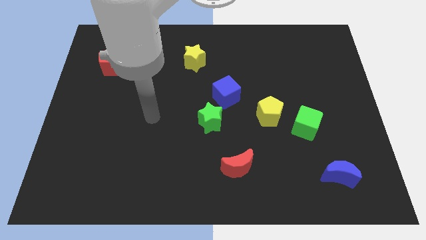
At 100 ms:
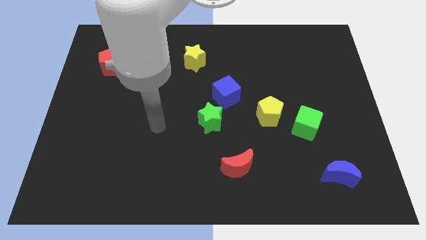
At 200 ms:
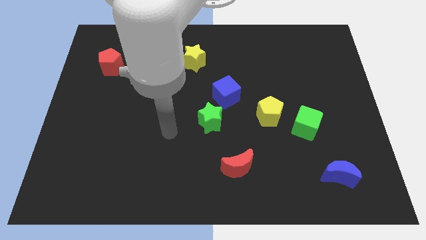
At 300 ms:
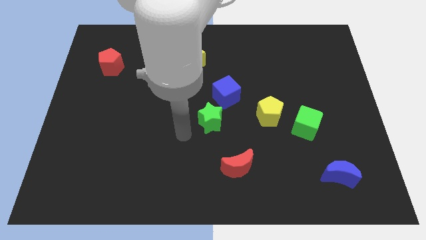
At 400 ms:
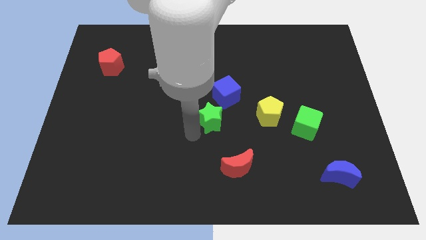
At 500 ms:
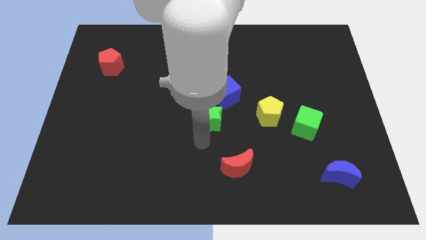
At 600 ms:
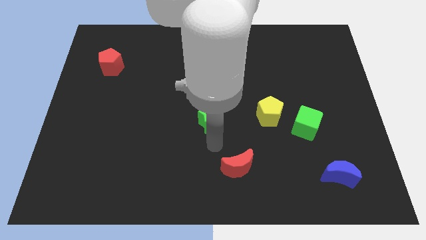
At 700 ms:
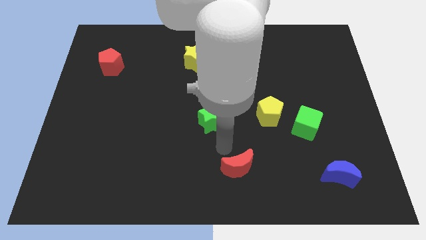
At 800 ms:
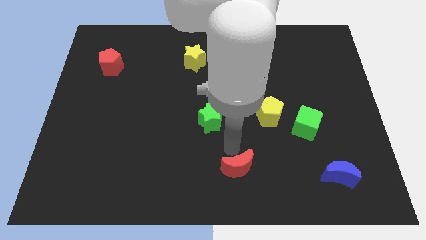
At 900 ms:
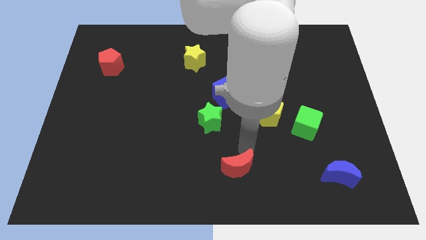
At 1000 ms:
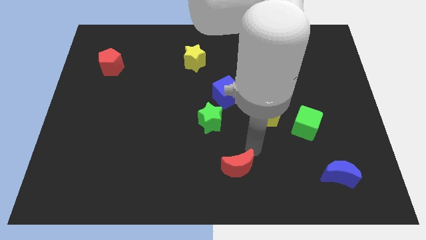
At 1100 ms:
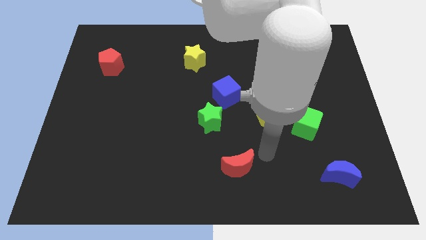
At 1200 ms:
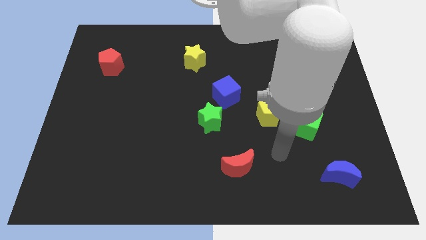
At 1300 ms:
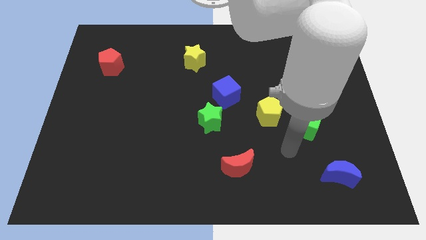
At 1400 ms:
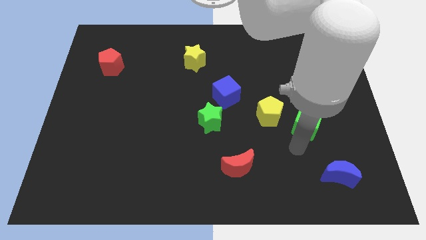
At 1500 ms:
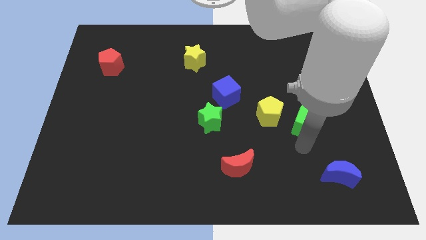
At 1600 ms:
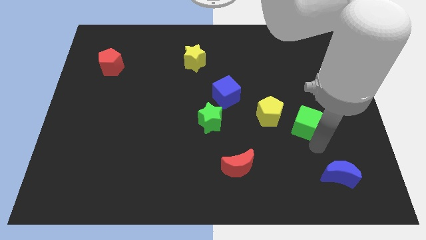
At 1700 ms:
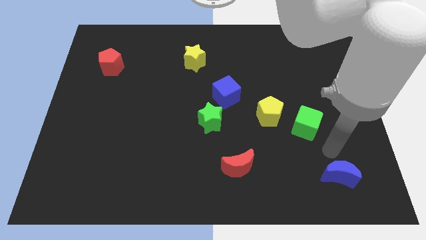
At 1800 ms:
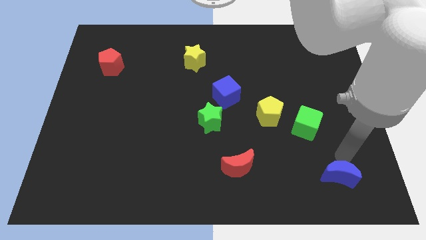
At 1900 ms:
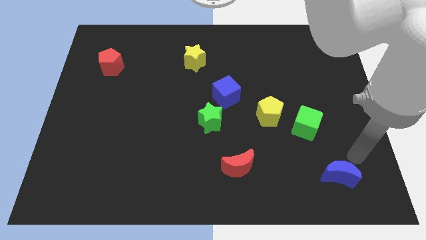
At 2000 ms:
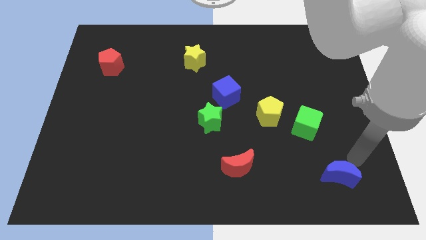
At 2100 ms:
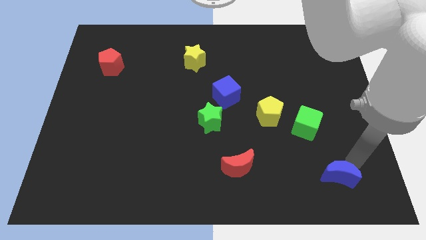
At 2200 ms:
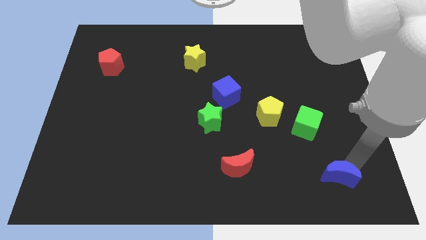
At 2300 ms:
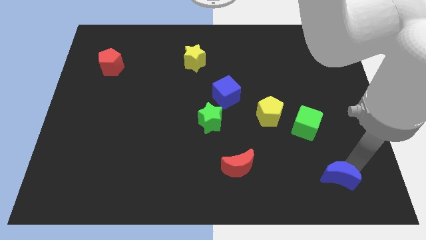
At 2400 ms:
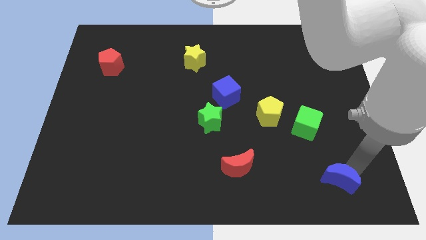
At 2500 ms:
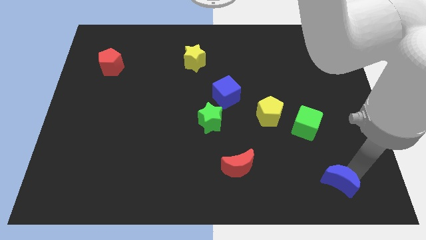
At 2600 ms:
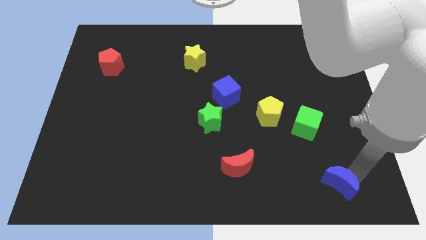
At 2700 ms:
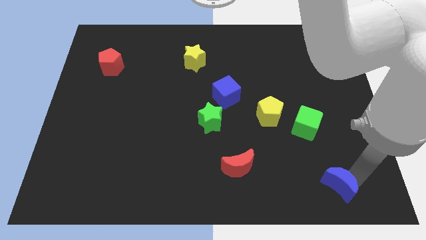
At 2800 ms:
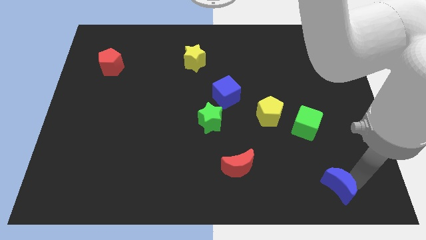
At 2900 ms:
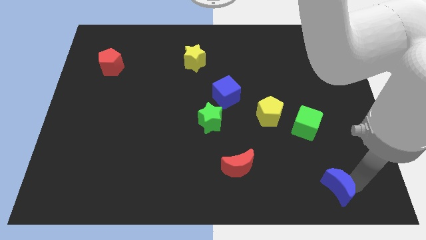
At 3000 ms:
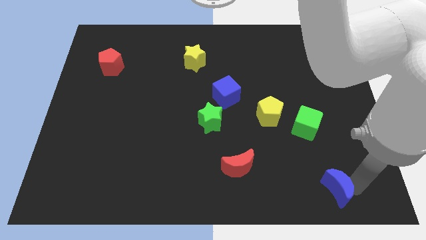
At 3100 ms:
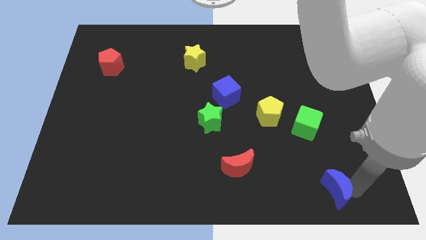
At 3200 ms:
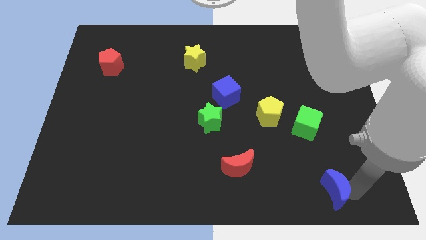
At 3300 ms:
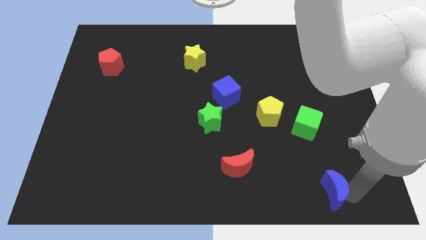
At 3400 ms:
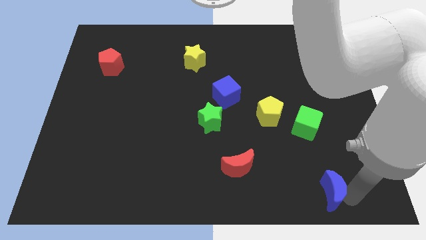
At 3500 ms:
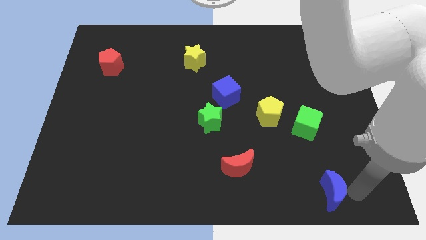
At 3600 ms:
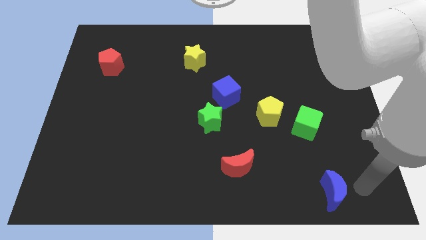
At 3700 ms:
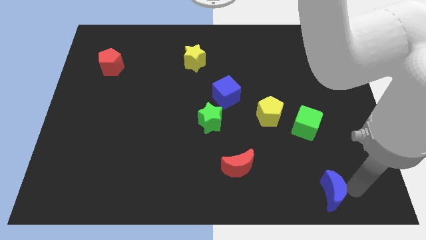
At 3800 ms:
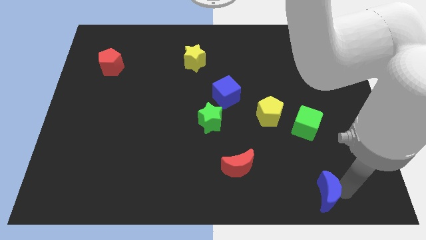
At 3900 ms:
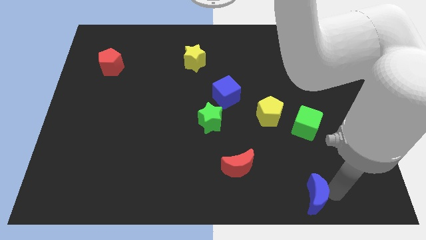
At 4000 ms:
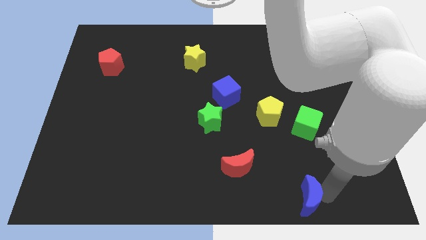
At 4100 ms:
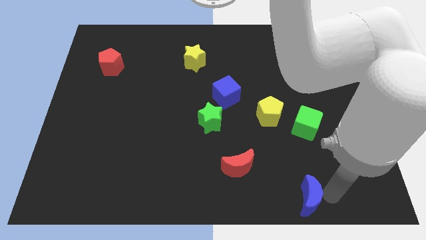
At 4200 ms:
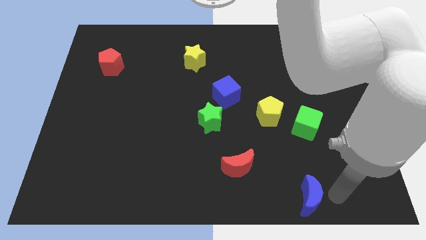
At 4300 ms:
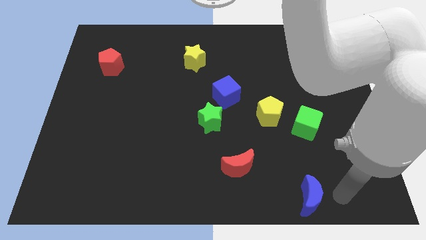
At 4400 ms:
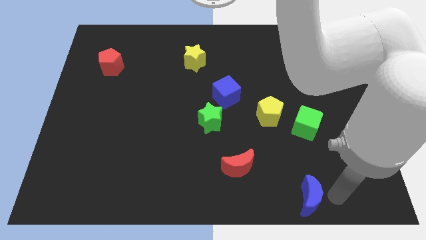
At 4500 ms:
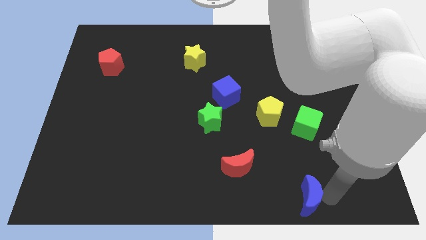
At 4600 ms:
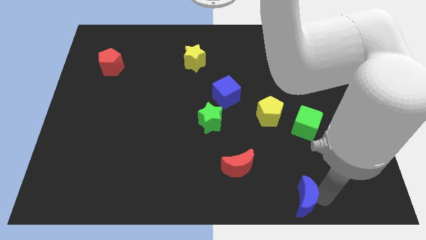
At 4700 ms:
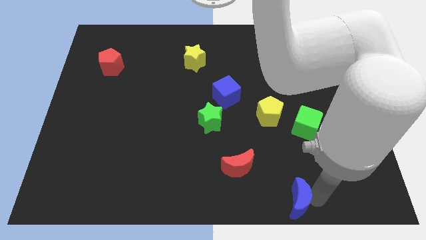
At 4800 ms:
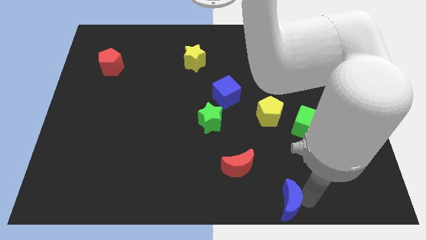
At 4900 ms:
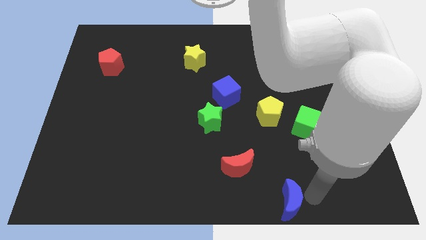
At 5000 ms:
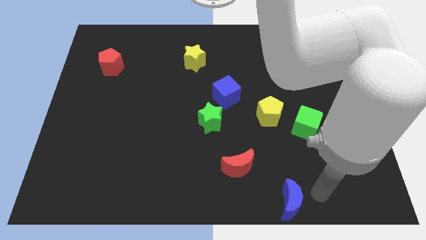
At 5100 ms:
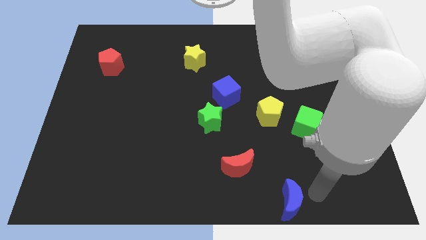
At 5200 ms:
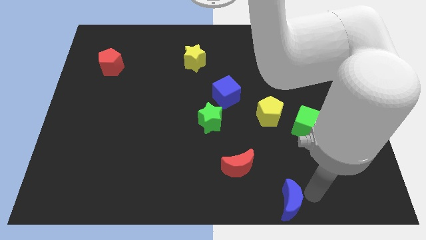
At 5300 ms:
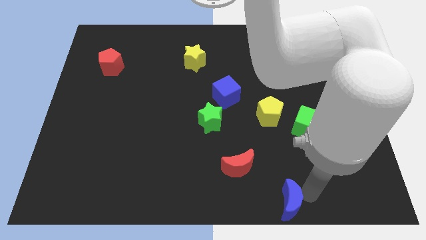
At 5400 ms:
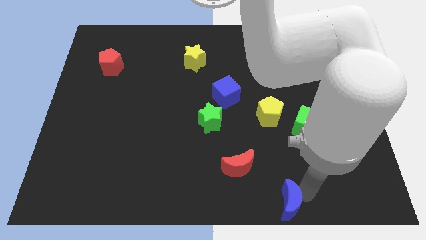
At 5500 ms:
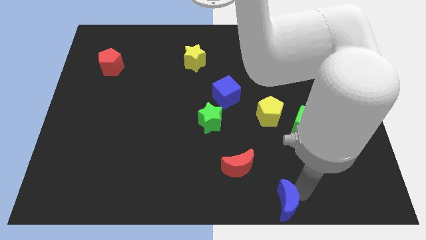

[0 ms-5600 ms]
push the blue moon to the bottom side

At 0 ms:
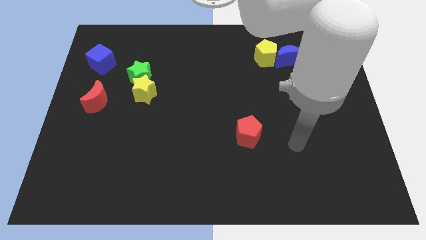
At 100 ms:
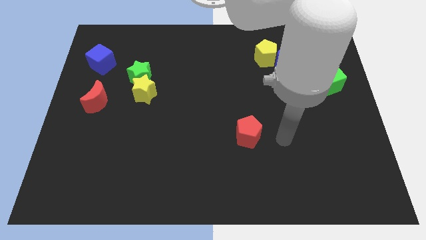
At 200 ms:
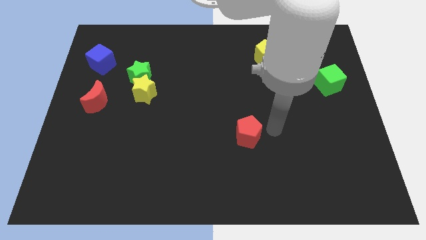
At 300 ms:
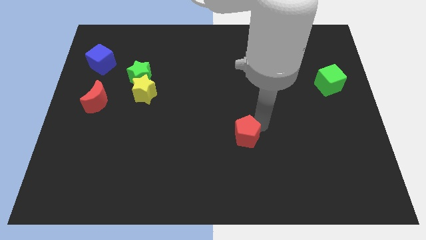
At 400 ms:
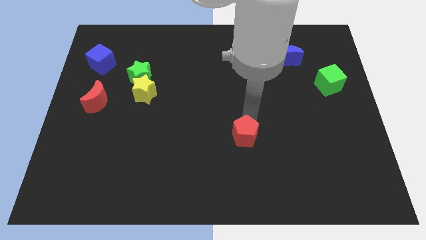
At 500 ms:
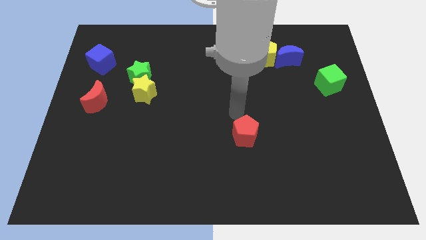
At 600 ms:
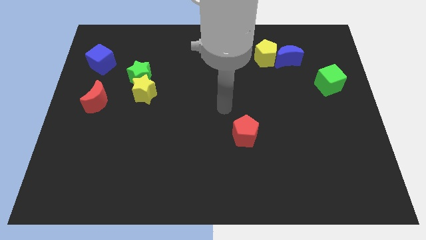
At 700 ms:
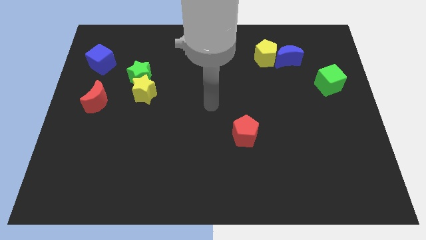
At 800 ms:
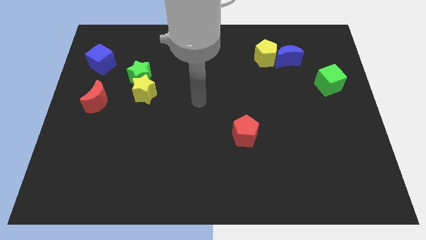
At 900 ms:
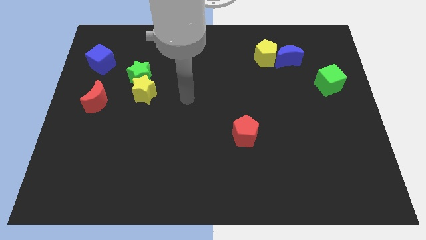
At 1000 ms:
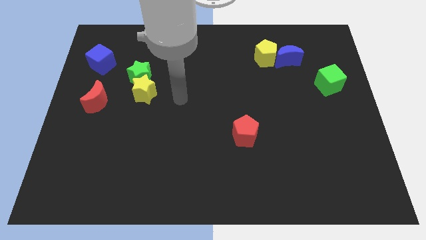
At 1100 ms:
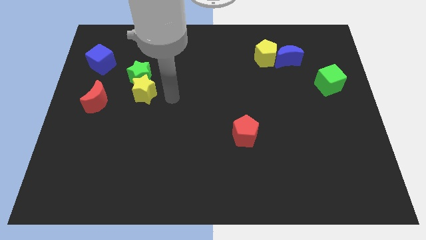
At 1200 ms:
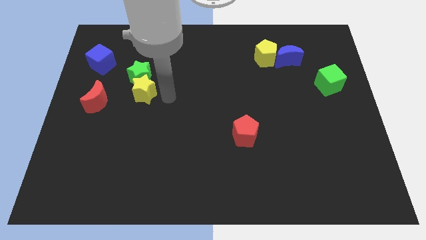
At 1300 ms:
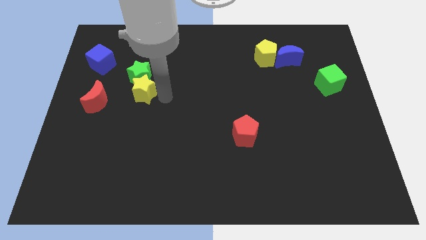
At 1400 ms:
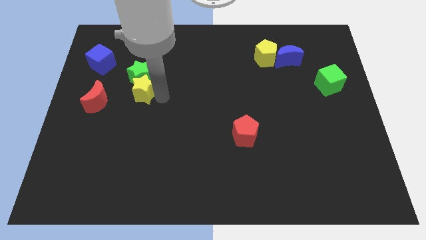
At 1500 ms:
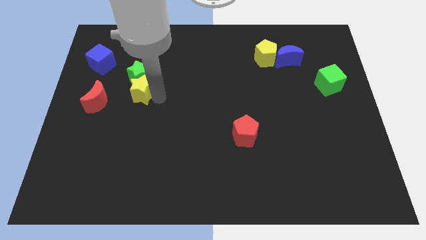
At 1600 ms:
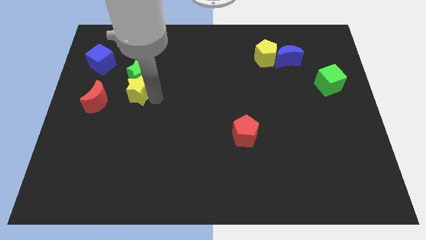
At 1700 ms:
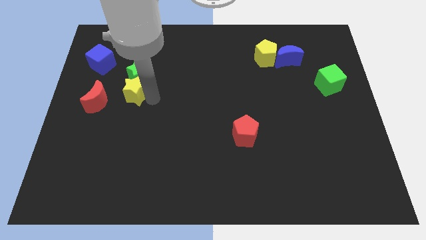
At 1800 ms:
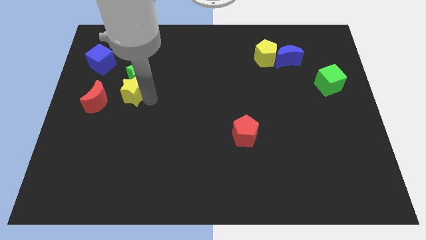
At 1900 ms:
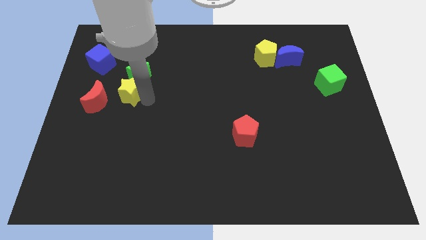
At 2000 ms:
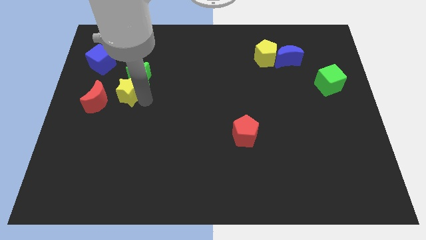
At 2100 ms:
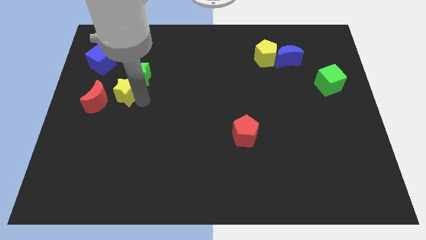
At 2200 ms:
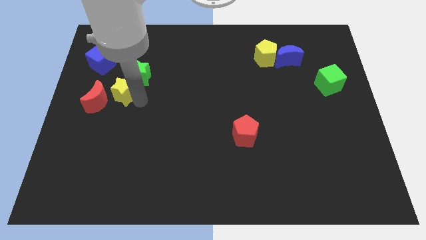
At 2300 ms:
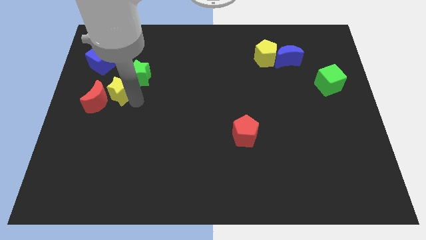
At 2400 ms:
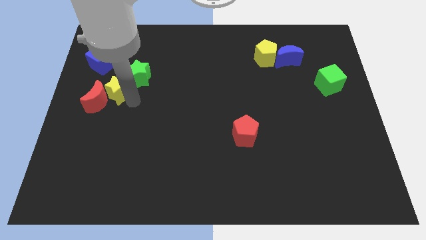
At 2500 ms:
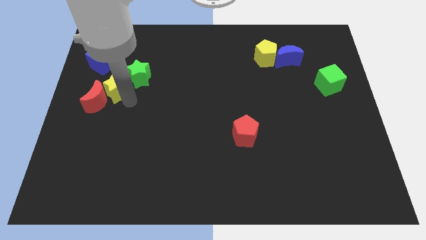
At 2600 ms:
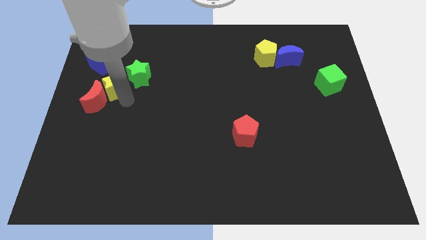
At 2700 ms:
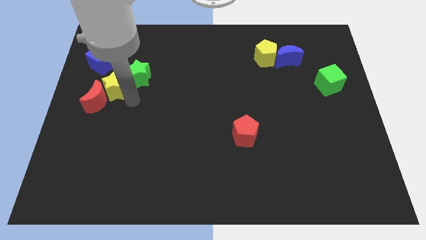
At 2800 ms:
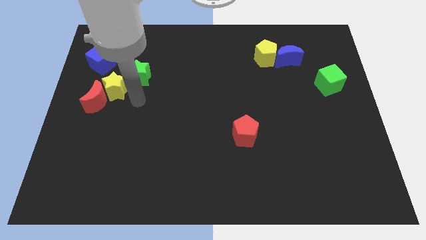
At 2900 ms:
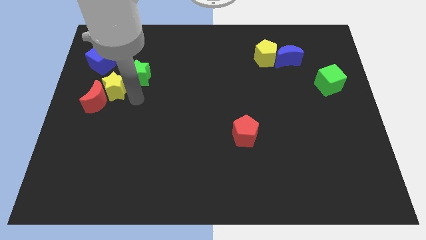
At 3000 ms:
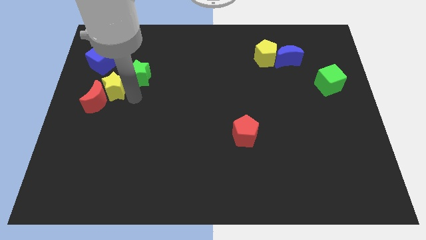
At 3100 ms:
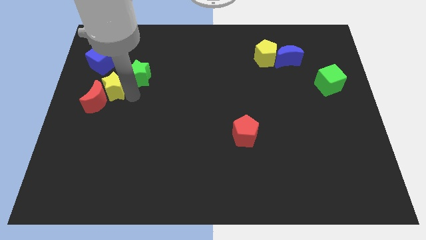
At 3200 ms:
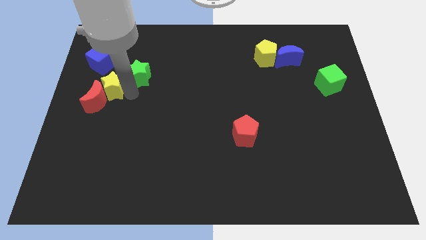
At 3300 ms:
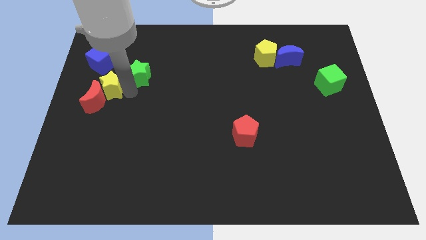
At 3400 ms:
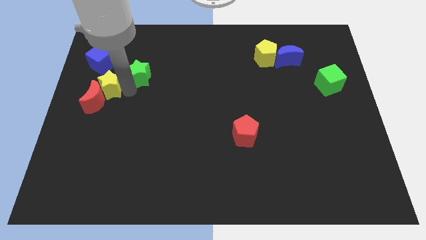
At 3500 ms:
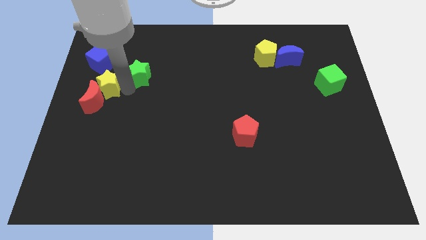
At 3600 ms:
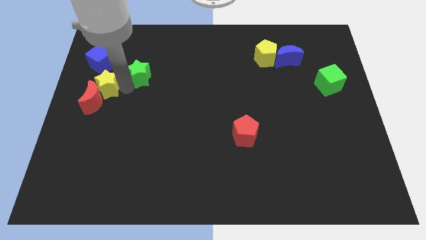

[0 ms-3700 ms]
slide the yellow star to the center left
